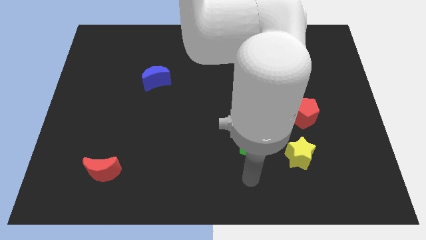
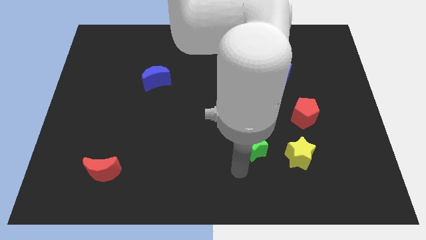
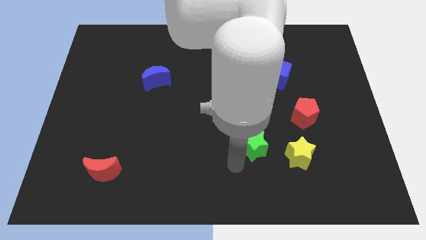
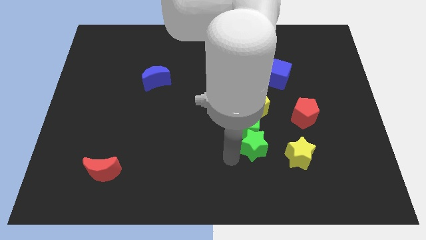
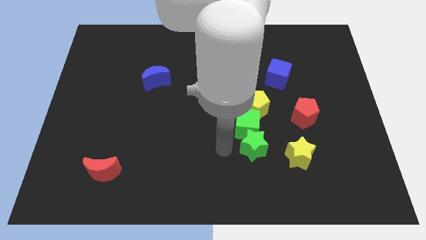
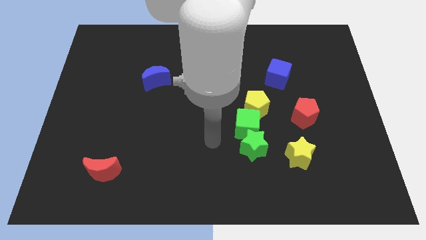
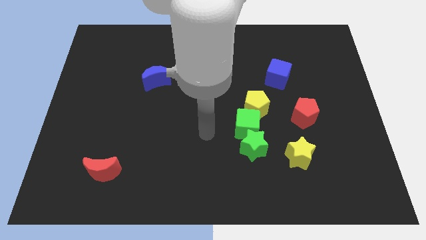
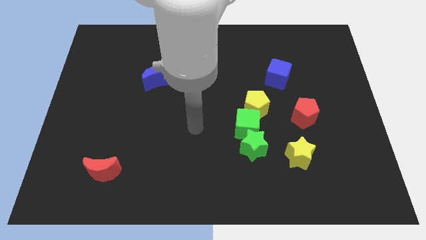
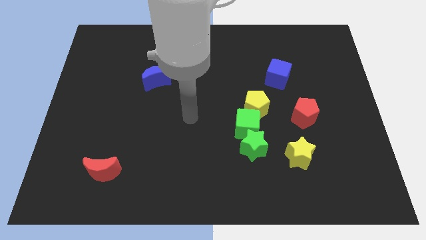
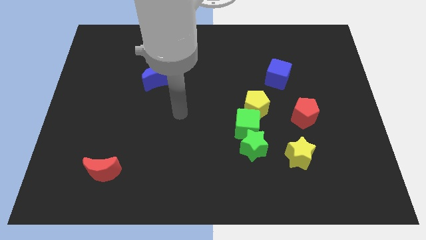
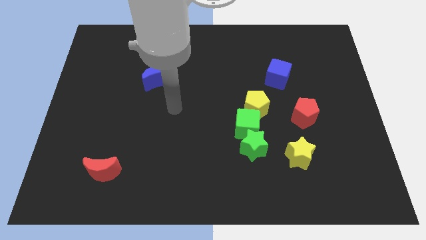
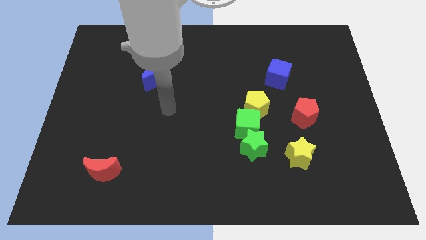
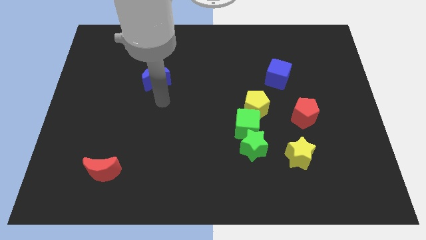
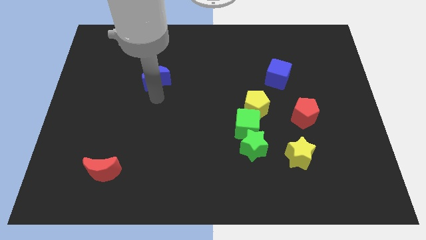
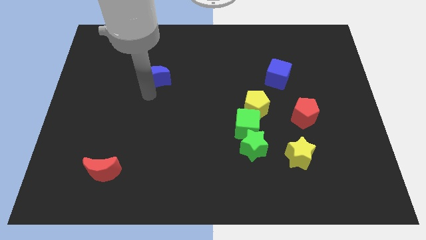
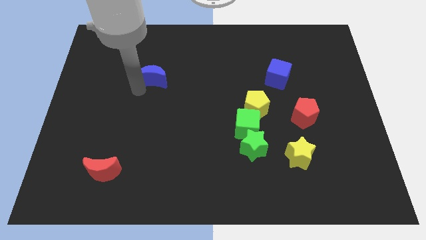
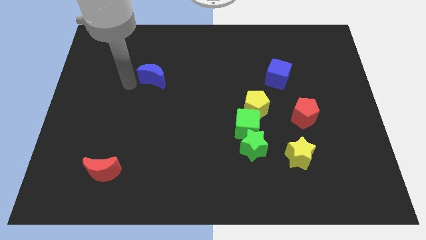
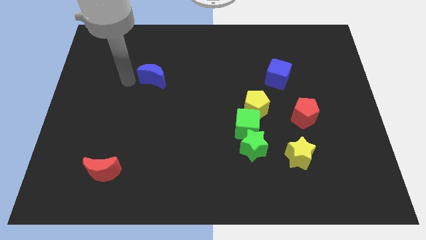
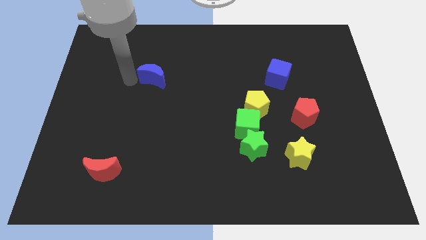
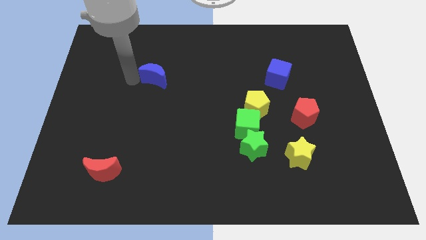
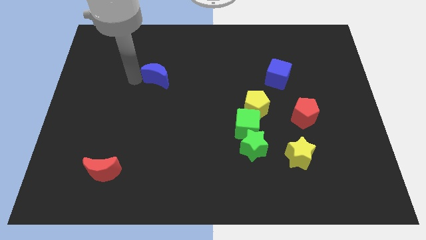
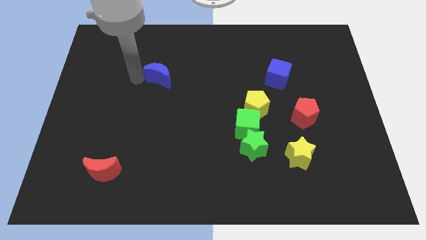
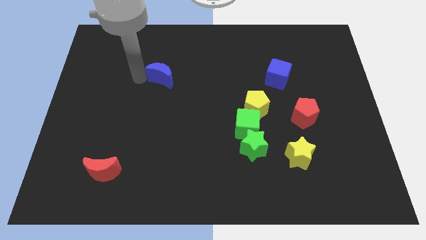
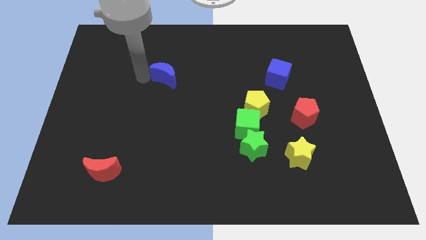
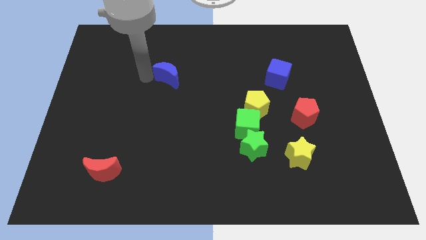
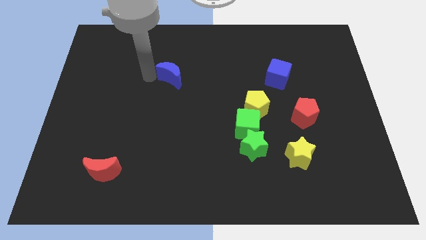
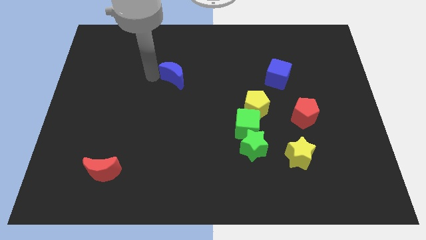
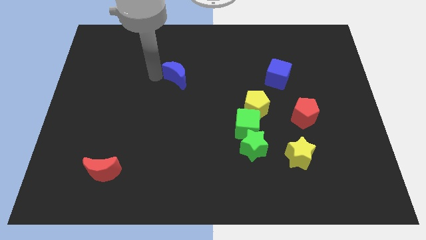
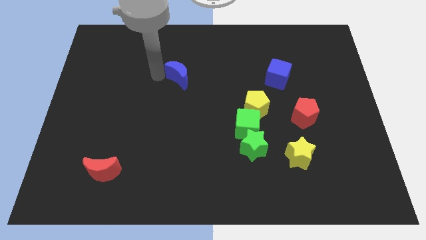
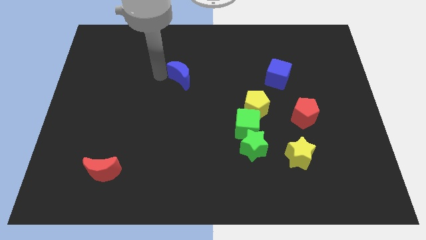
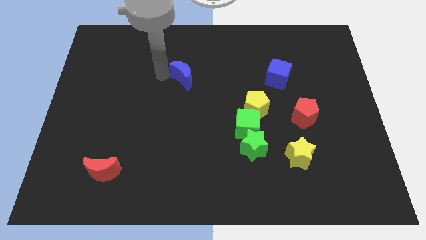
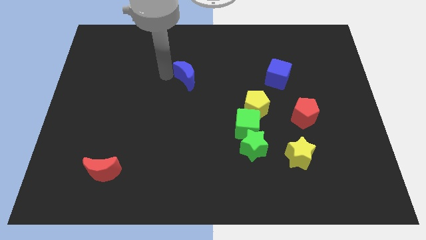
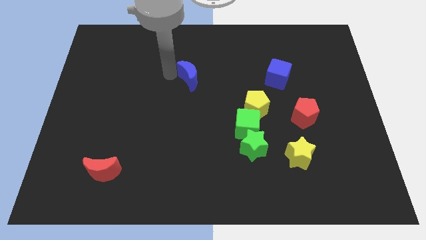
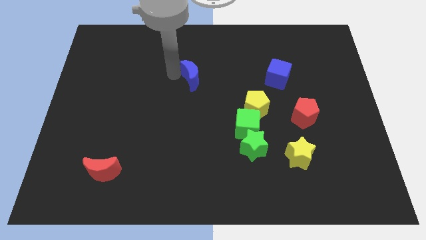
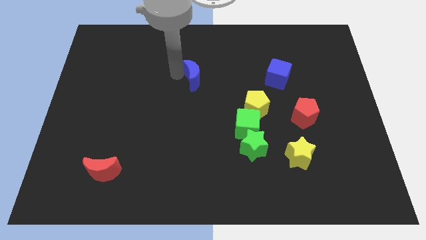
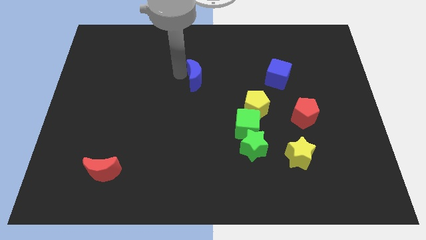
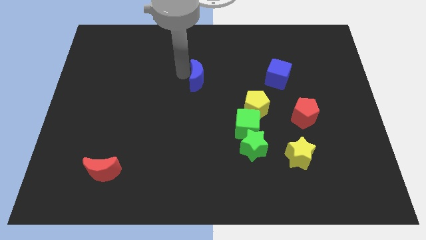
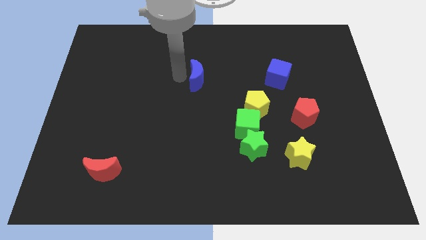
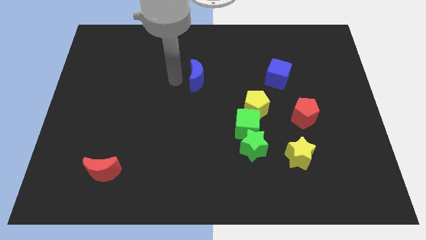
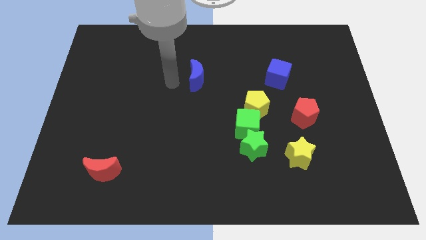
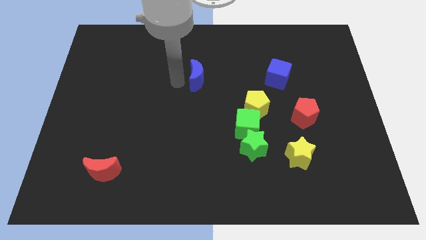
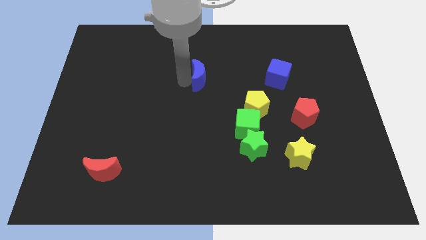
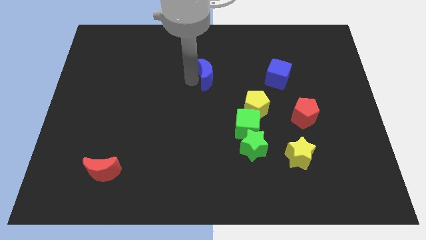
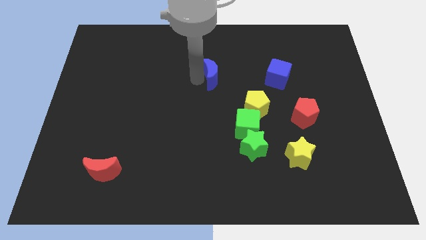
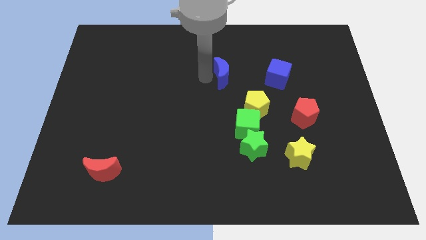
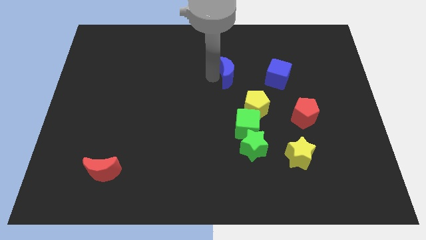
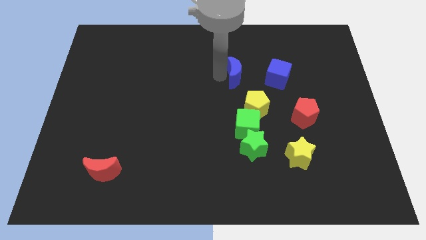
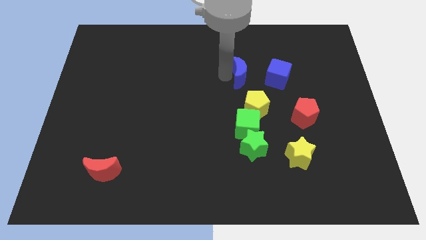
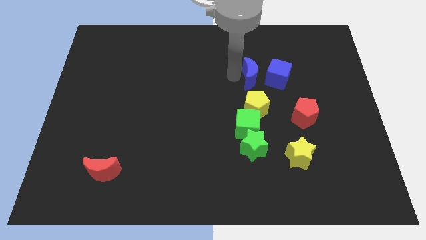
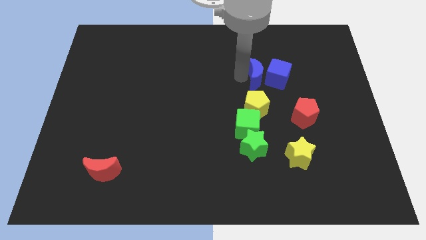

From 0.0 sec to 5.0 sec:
move the blue moon towards the blue cube

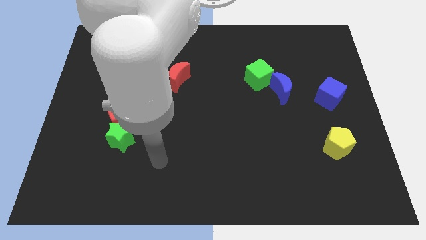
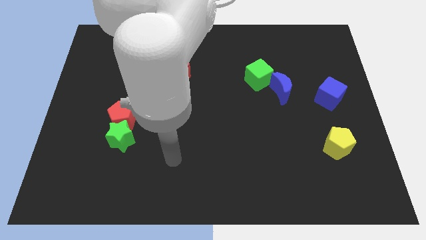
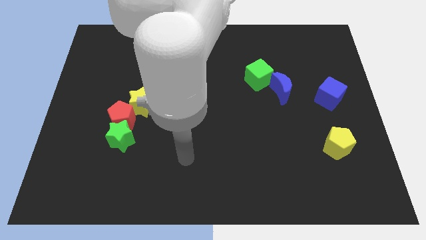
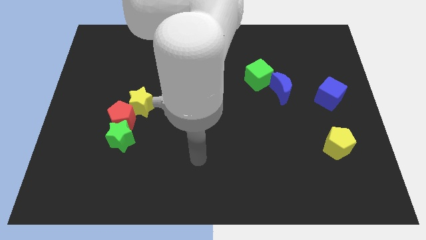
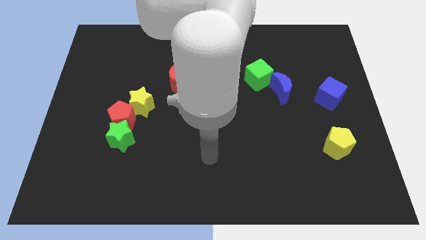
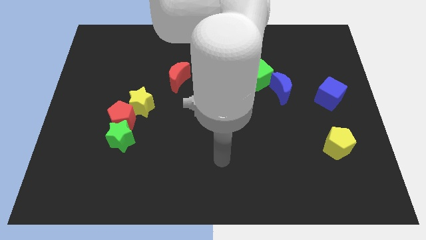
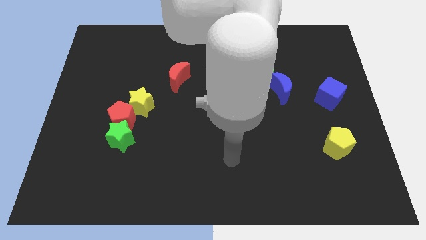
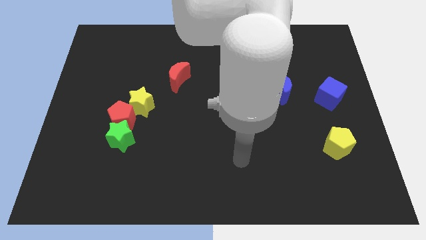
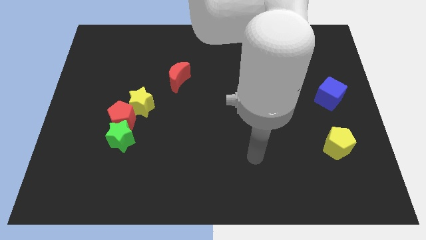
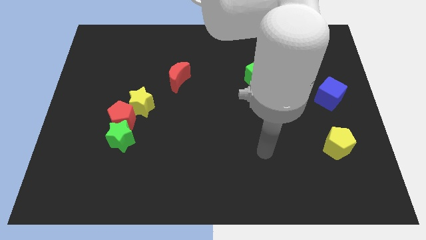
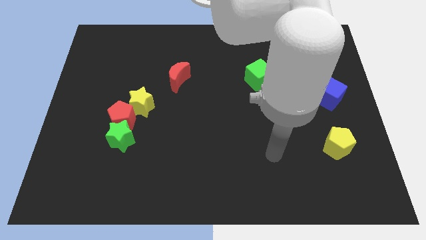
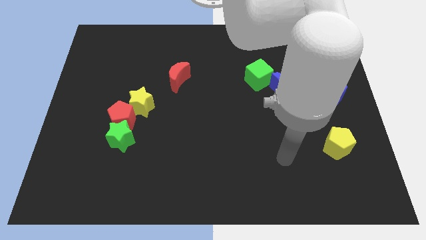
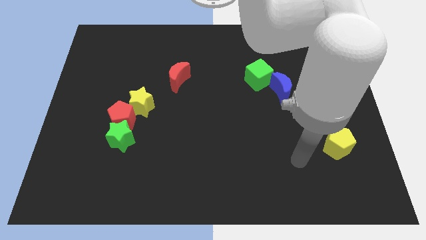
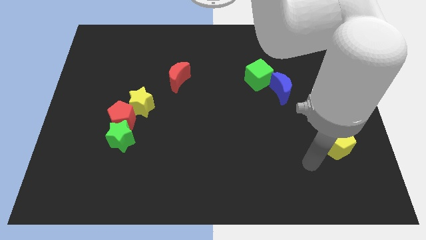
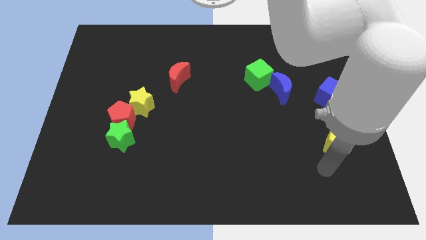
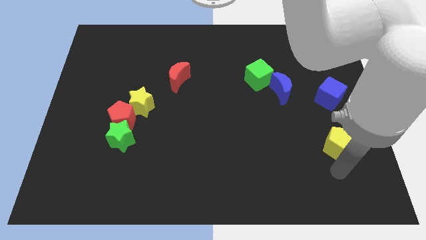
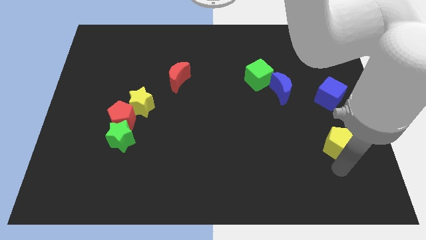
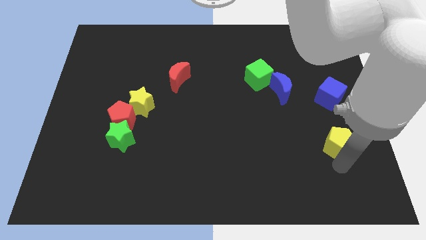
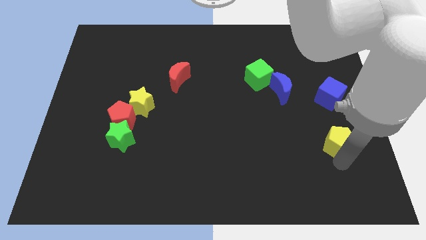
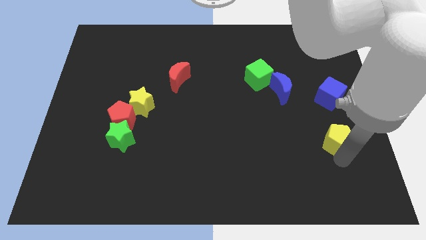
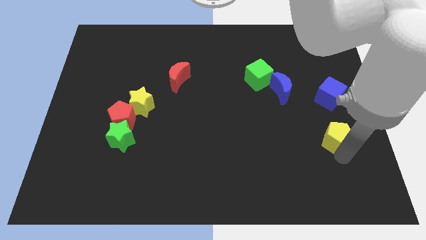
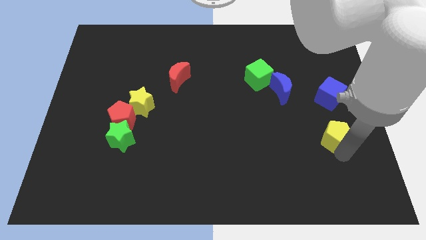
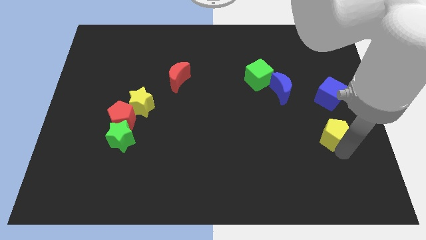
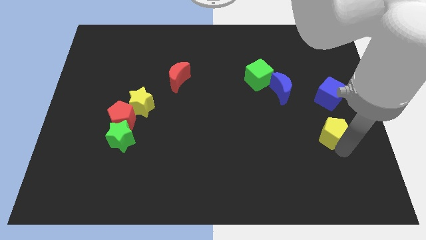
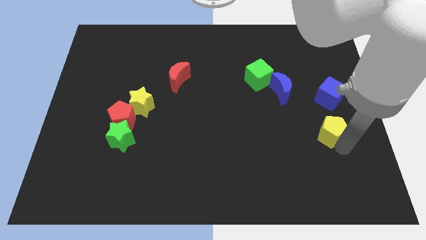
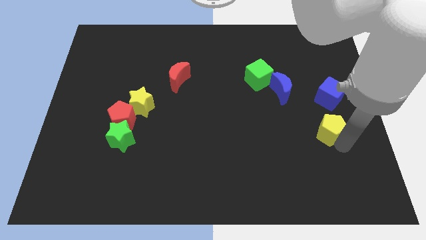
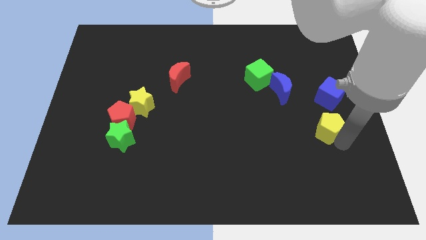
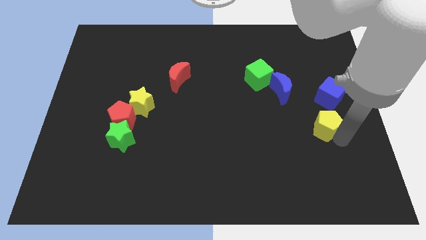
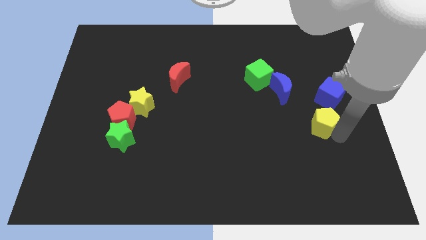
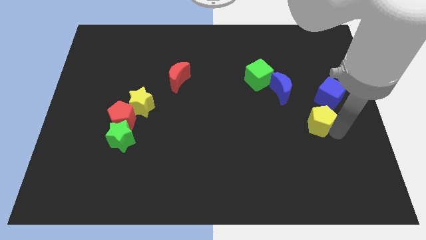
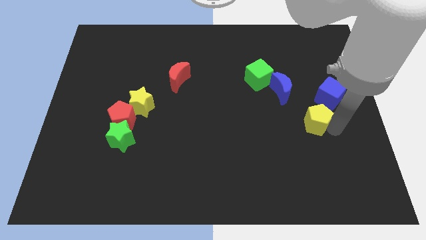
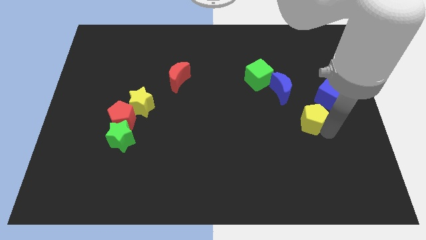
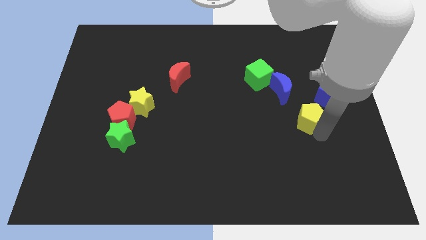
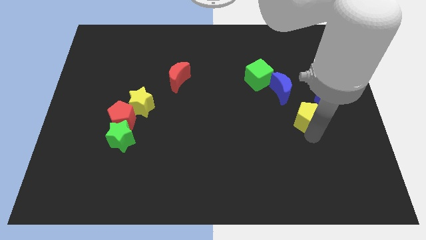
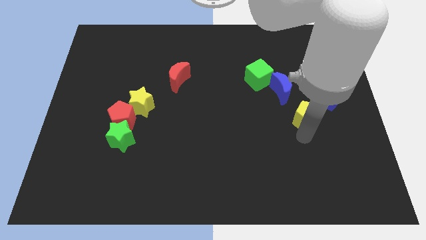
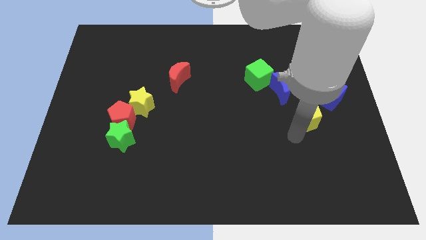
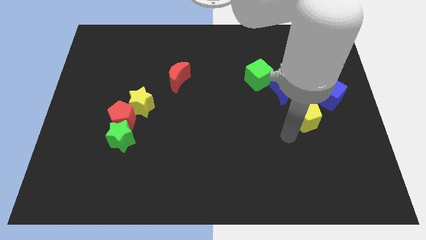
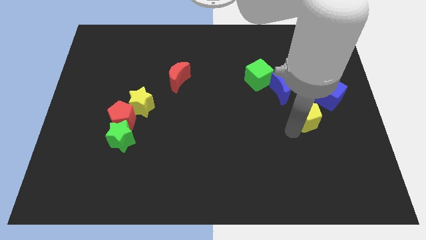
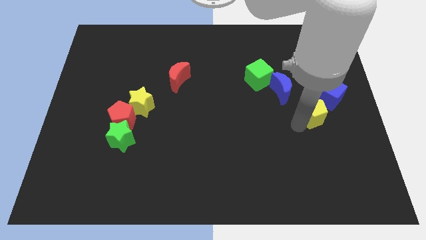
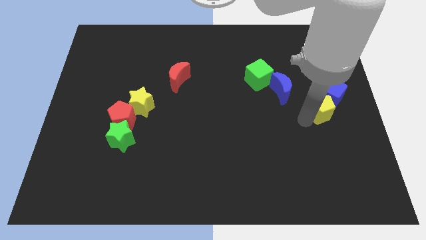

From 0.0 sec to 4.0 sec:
slide the yellow pentagon next to the blue cube
